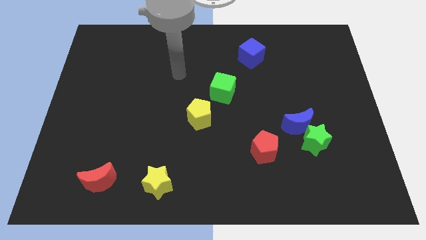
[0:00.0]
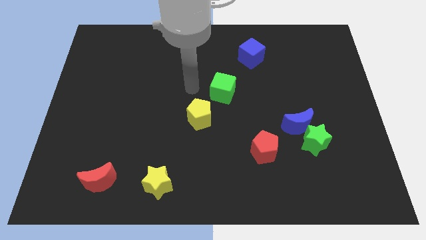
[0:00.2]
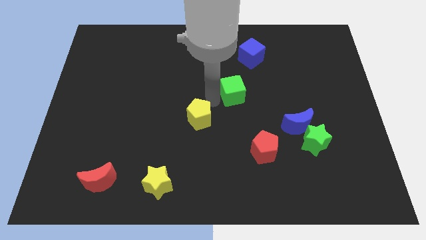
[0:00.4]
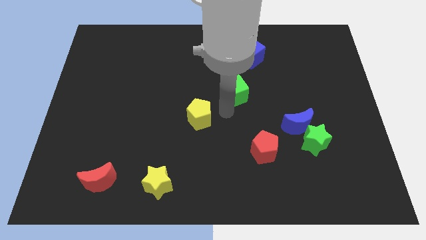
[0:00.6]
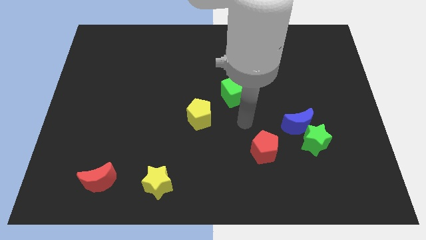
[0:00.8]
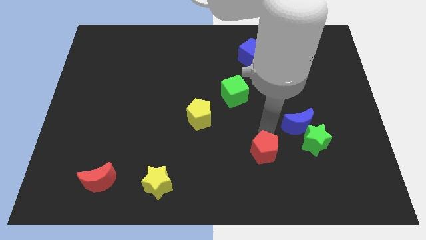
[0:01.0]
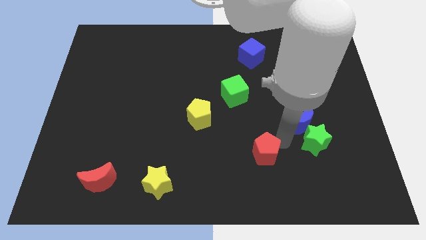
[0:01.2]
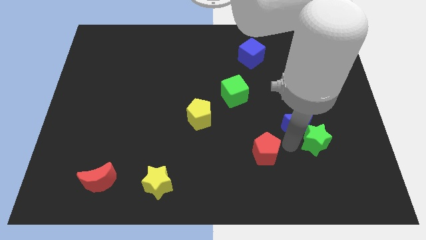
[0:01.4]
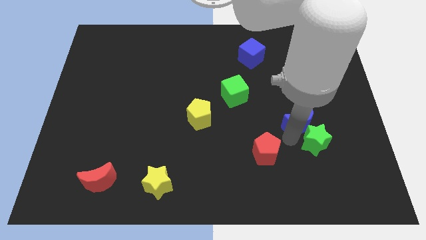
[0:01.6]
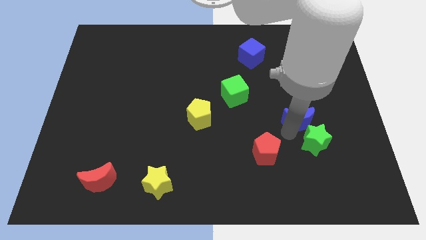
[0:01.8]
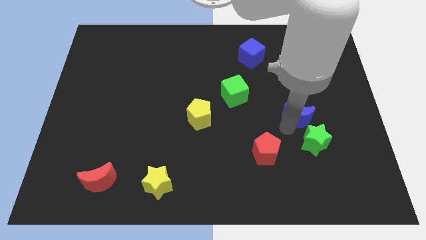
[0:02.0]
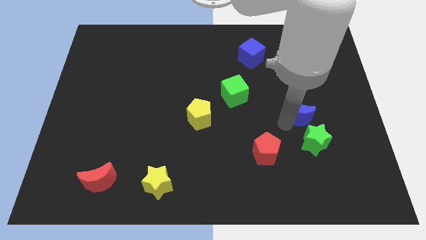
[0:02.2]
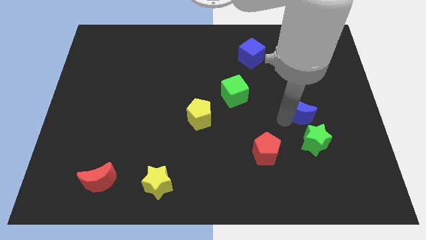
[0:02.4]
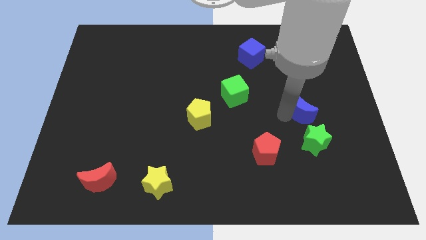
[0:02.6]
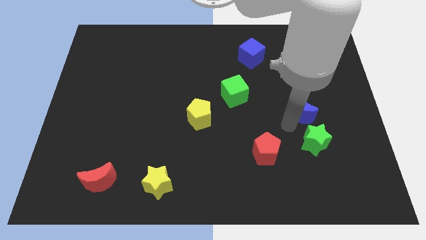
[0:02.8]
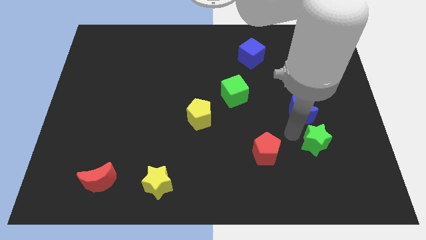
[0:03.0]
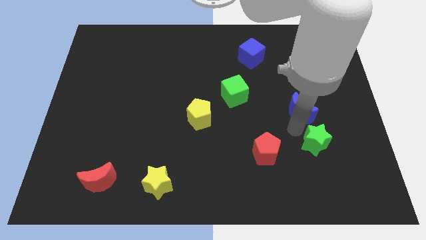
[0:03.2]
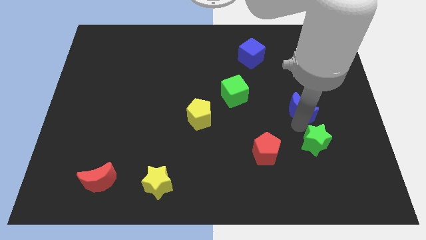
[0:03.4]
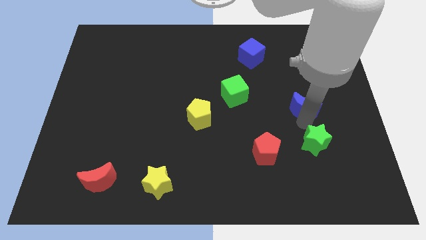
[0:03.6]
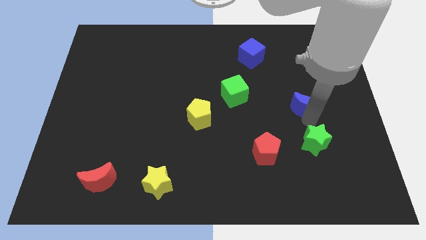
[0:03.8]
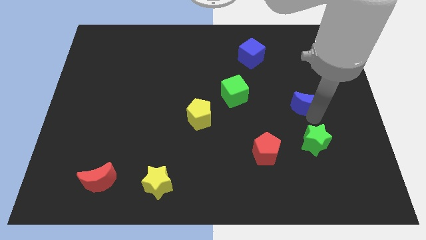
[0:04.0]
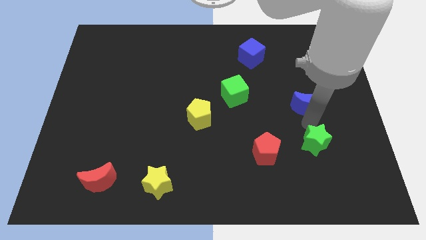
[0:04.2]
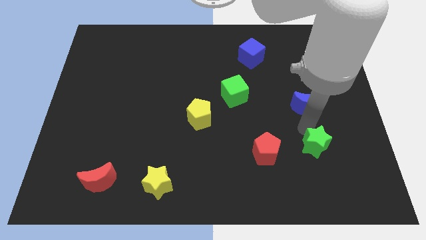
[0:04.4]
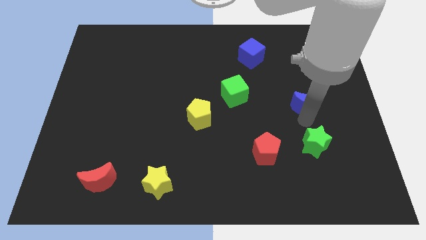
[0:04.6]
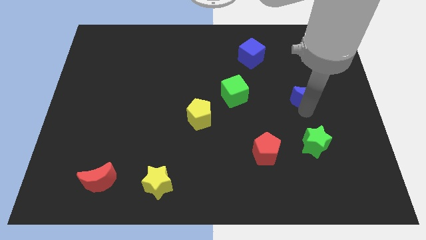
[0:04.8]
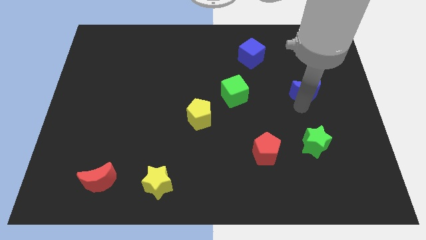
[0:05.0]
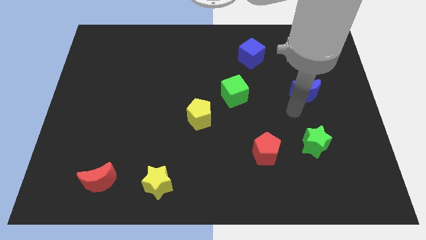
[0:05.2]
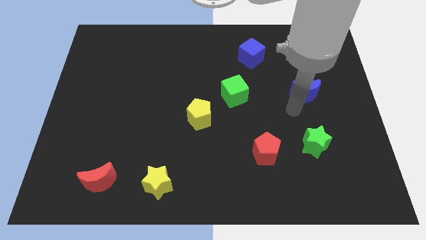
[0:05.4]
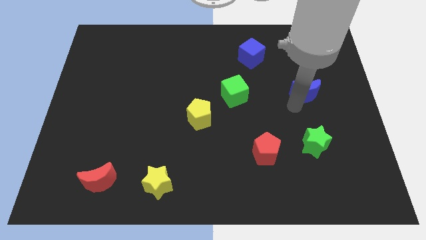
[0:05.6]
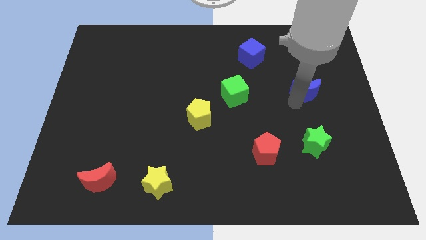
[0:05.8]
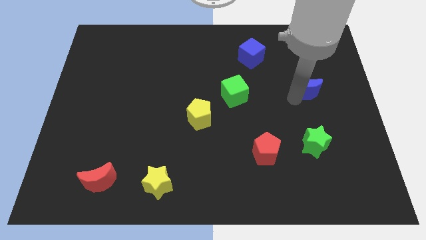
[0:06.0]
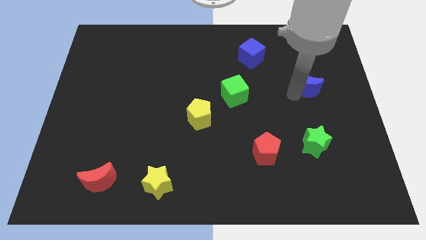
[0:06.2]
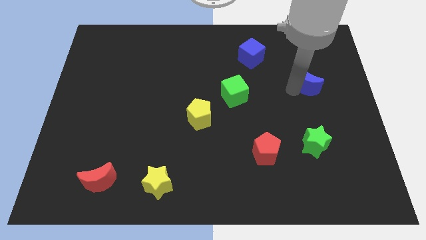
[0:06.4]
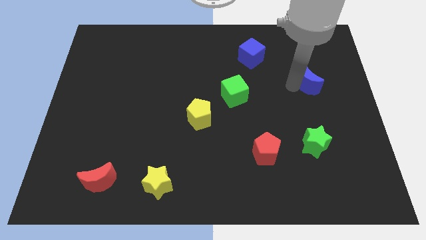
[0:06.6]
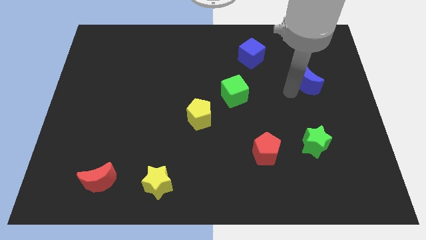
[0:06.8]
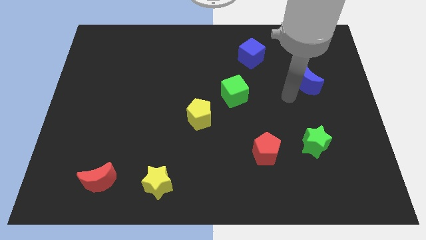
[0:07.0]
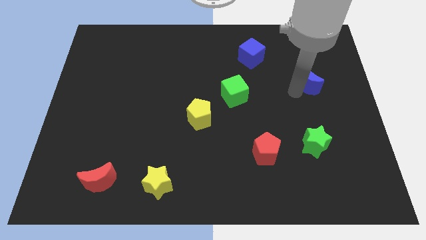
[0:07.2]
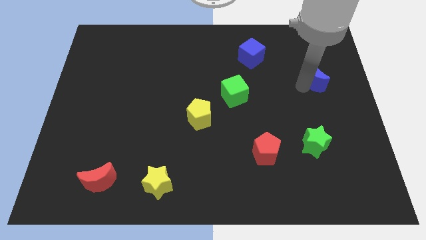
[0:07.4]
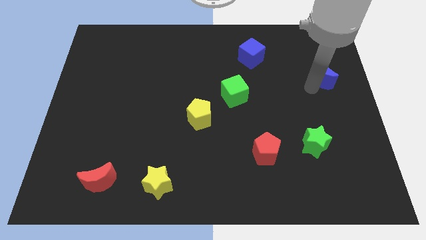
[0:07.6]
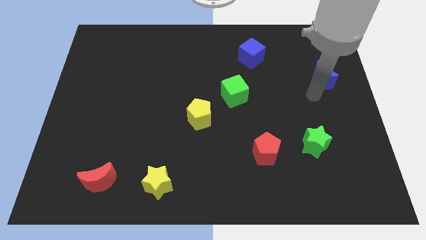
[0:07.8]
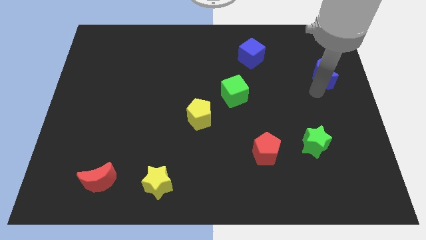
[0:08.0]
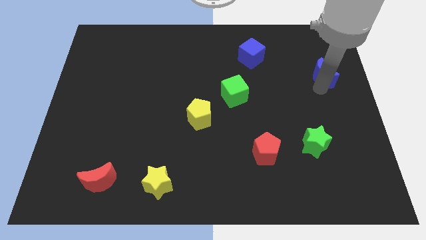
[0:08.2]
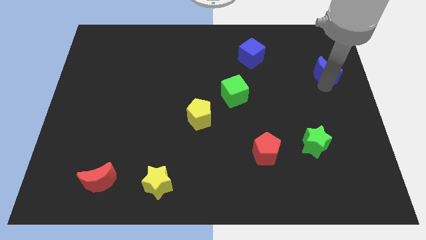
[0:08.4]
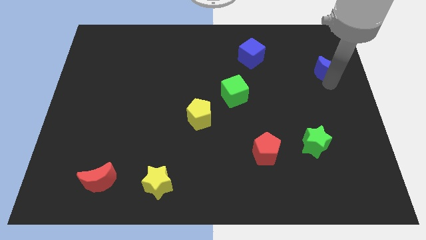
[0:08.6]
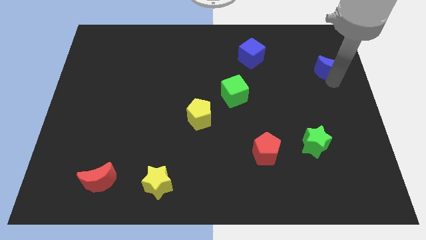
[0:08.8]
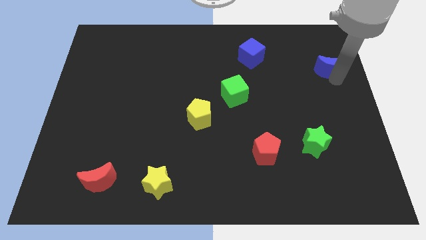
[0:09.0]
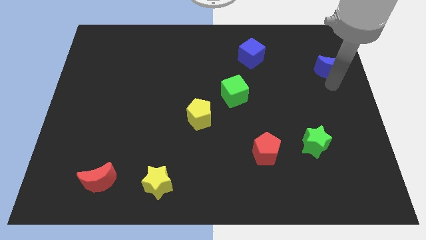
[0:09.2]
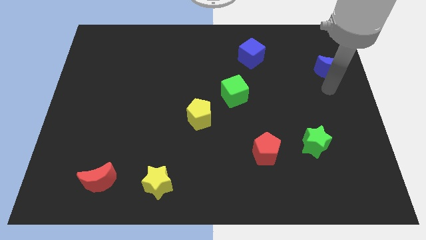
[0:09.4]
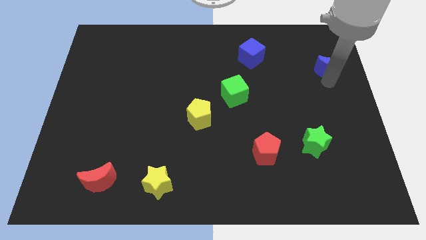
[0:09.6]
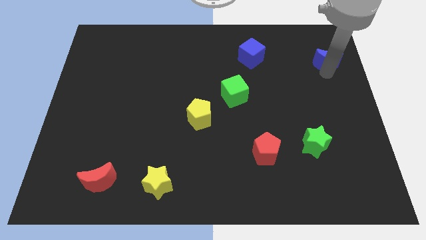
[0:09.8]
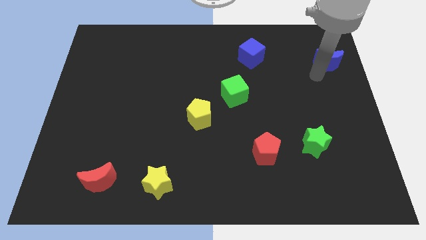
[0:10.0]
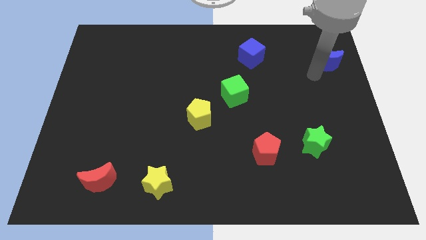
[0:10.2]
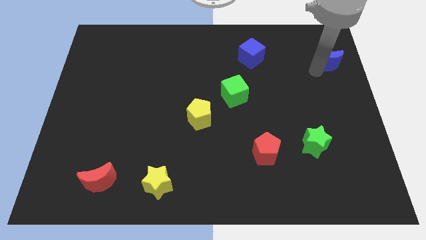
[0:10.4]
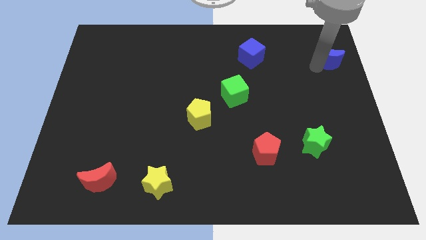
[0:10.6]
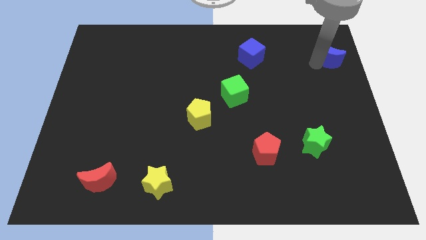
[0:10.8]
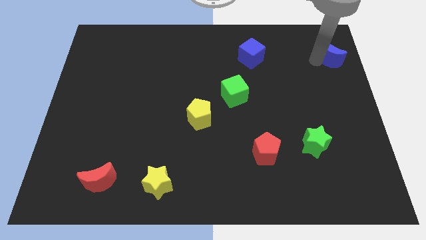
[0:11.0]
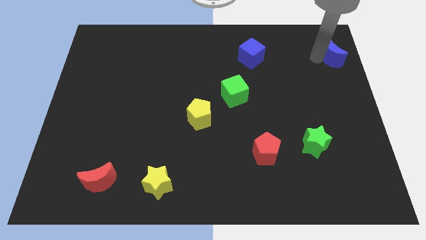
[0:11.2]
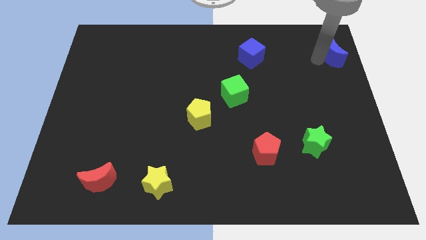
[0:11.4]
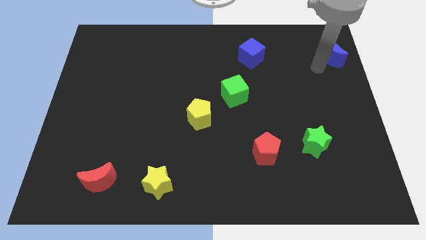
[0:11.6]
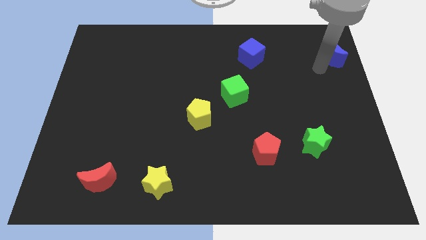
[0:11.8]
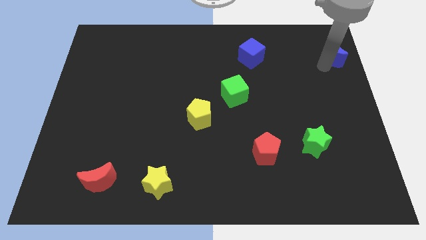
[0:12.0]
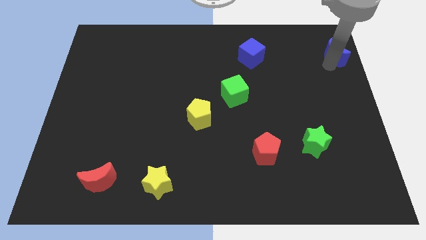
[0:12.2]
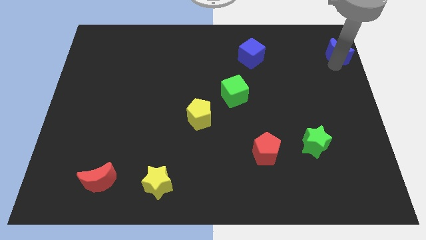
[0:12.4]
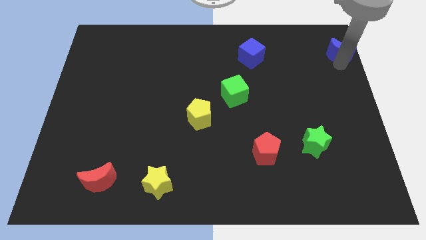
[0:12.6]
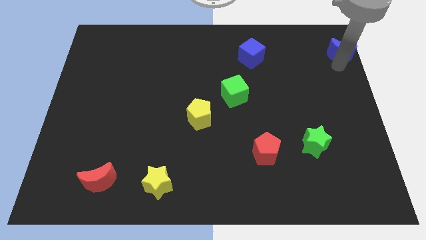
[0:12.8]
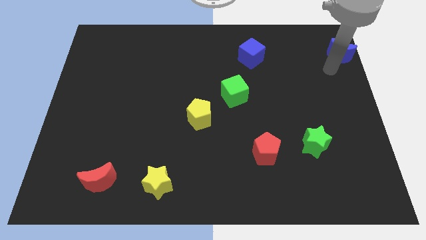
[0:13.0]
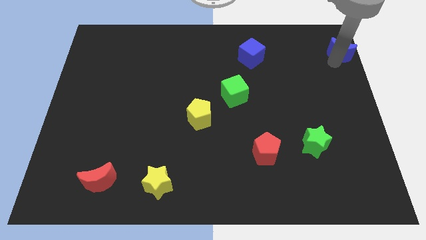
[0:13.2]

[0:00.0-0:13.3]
move the blue moon to the top right

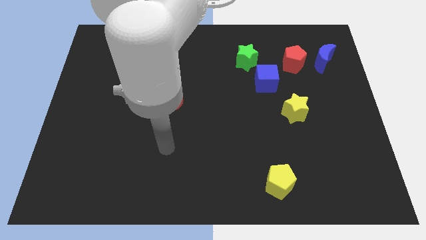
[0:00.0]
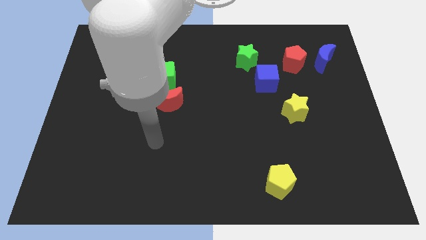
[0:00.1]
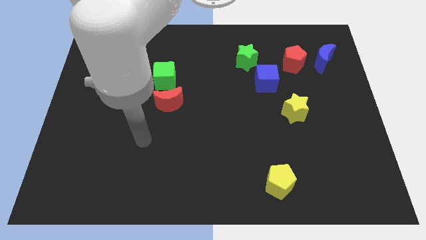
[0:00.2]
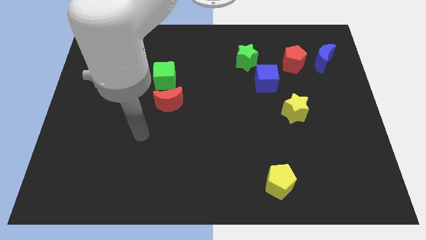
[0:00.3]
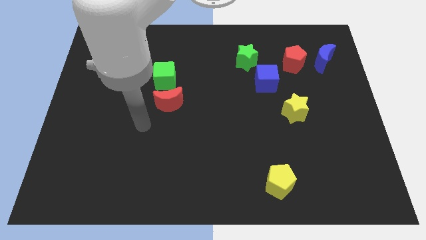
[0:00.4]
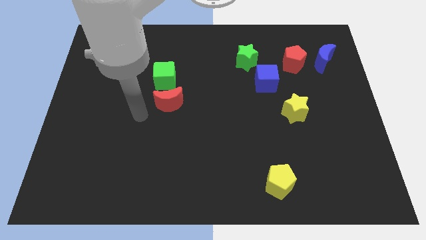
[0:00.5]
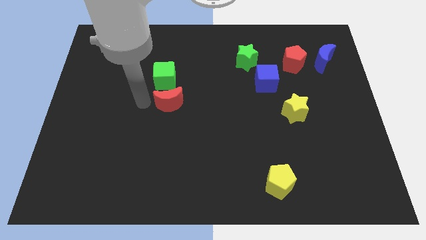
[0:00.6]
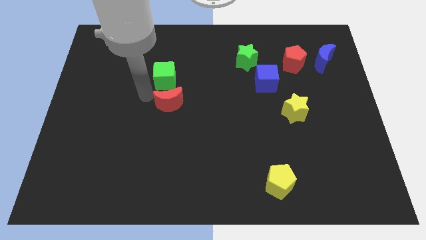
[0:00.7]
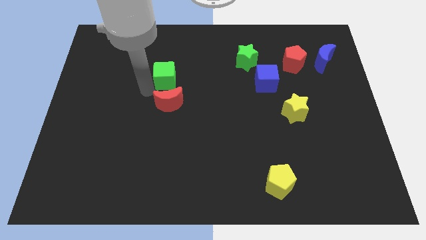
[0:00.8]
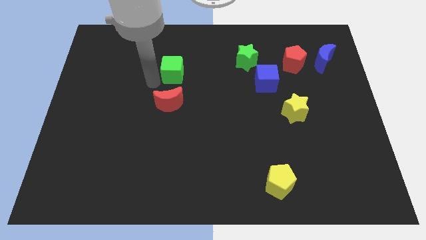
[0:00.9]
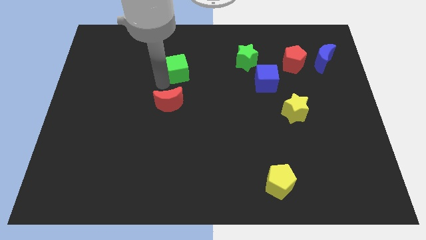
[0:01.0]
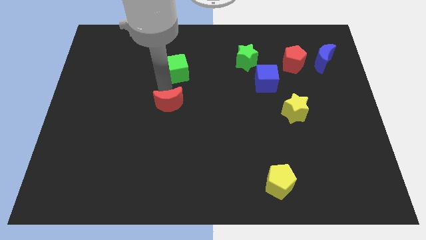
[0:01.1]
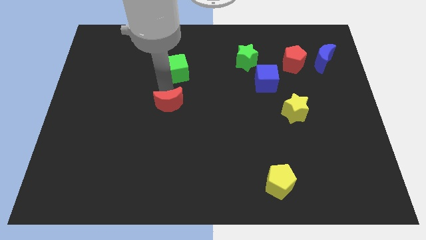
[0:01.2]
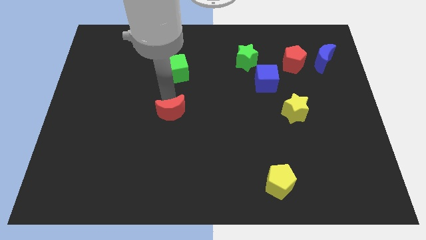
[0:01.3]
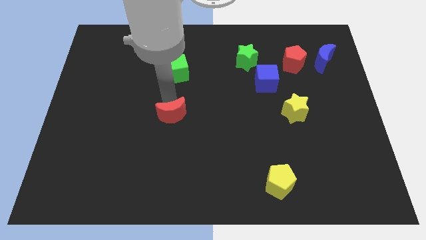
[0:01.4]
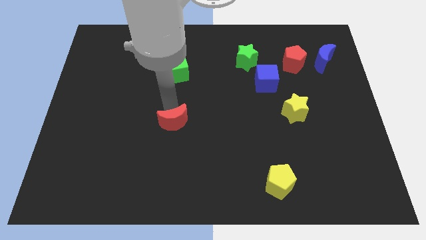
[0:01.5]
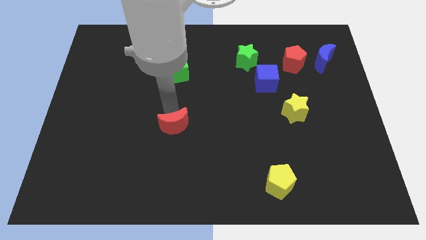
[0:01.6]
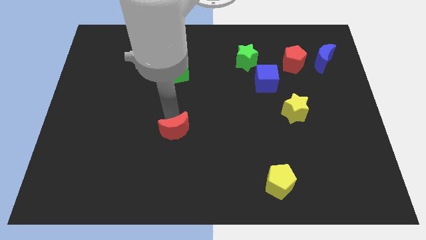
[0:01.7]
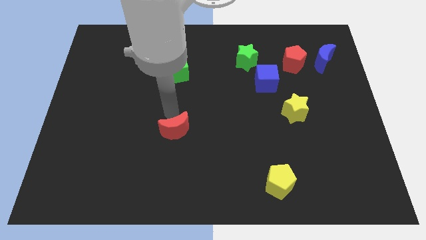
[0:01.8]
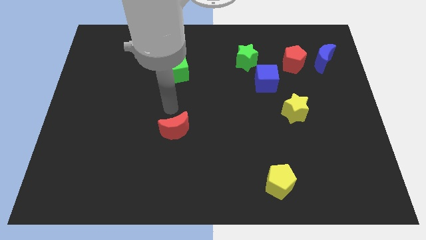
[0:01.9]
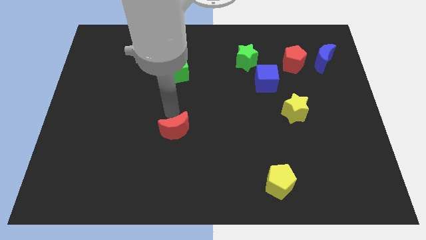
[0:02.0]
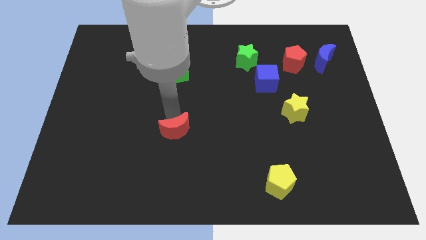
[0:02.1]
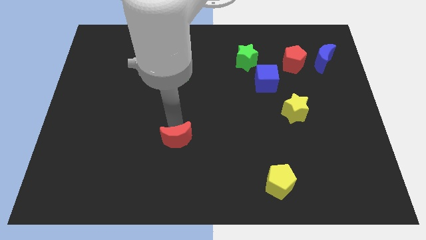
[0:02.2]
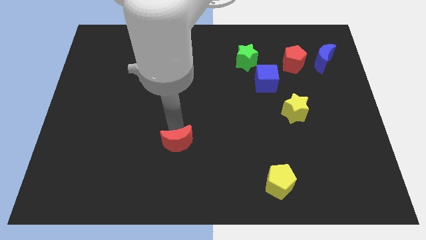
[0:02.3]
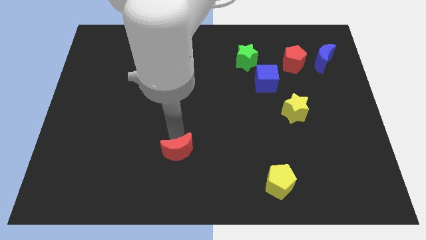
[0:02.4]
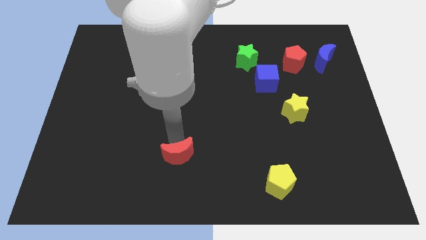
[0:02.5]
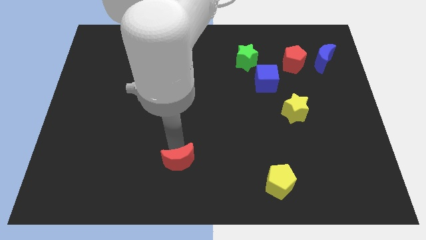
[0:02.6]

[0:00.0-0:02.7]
put the red moon to the bottom
